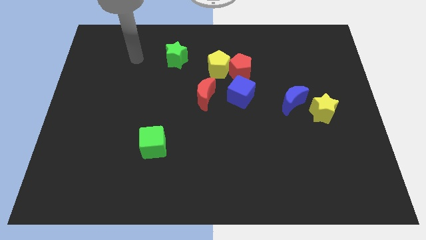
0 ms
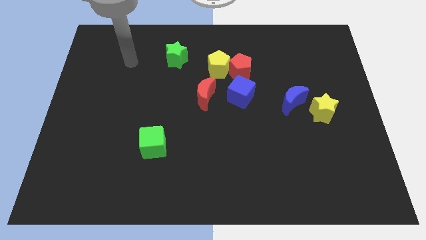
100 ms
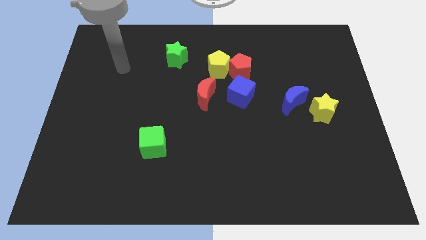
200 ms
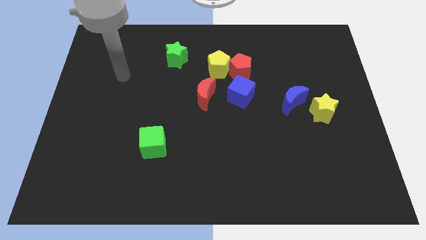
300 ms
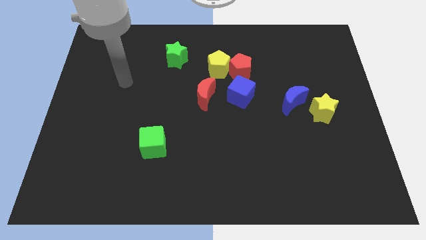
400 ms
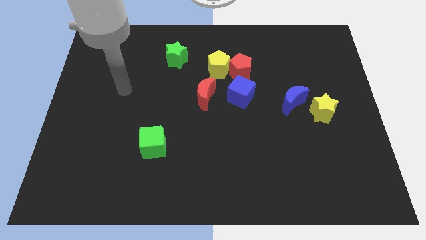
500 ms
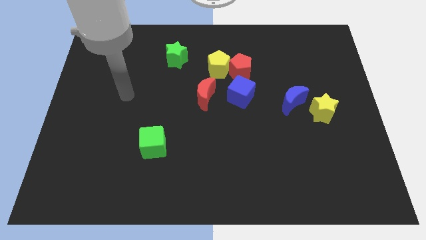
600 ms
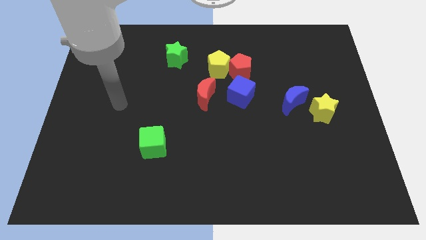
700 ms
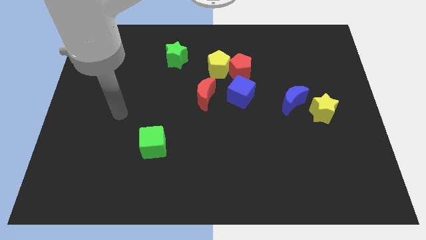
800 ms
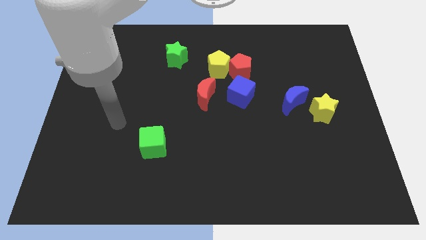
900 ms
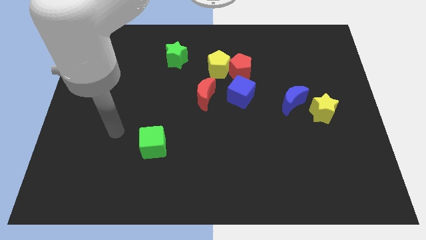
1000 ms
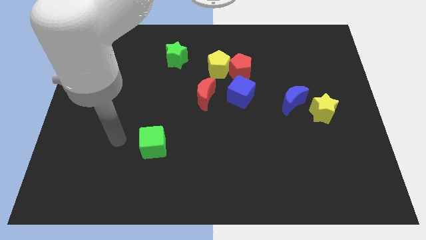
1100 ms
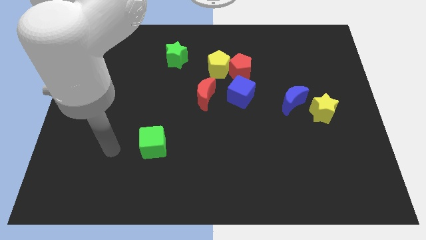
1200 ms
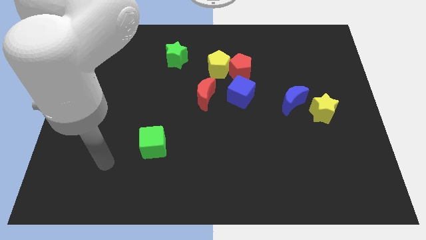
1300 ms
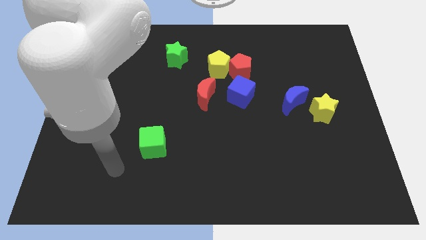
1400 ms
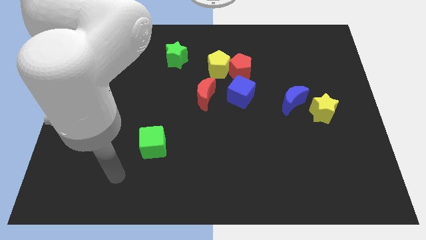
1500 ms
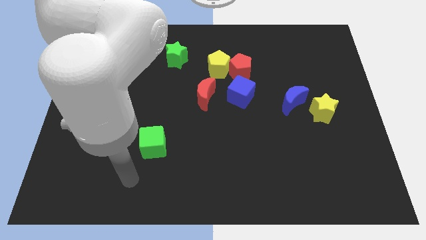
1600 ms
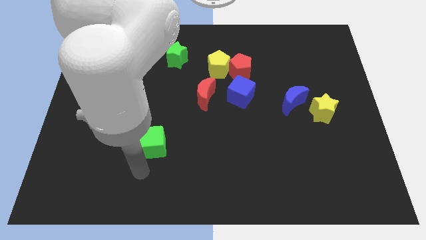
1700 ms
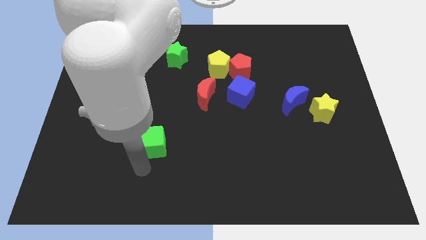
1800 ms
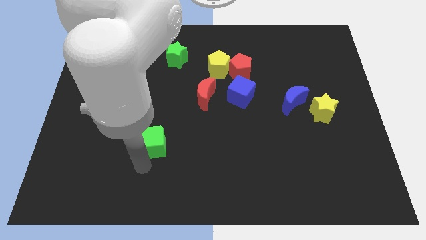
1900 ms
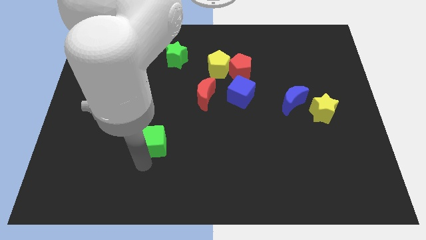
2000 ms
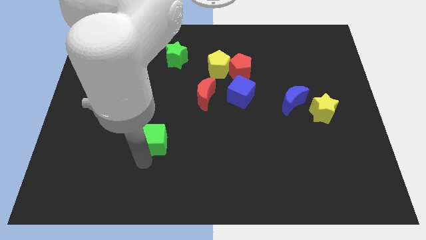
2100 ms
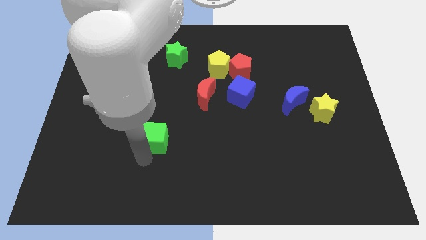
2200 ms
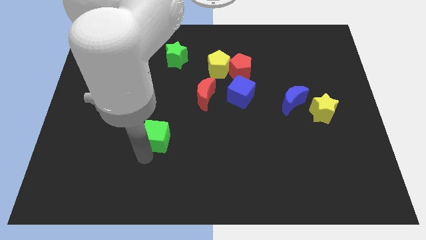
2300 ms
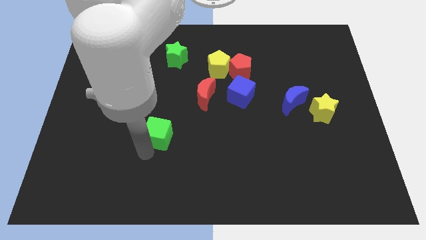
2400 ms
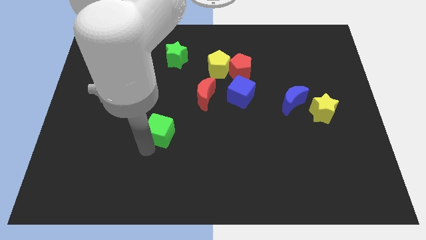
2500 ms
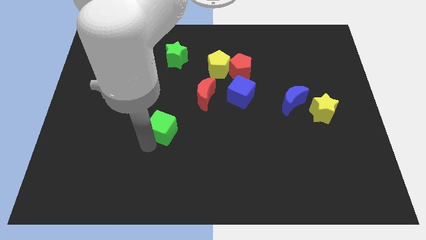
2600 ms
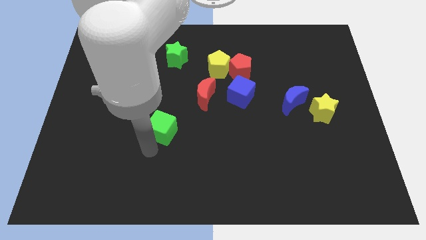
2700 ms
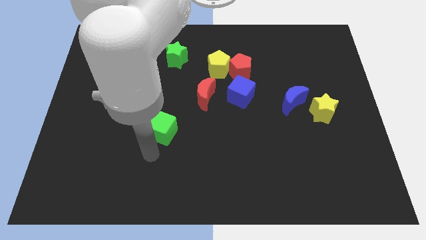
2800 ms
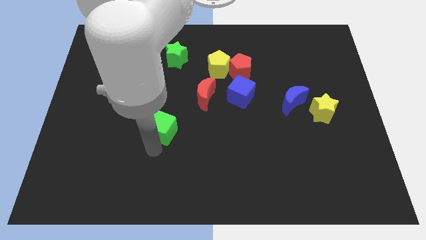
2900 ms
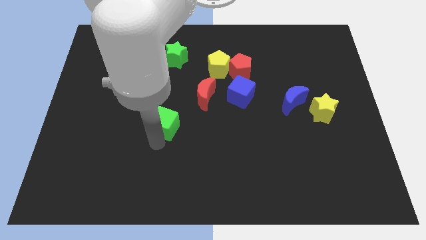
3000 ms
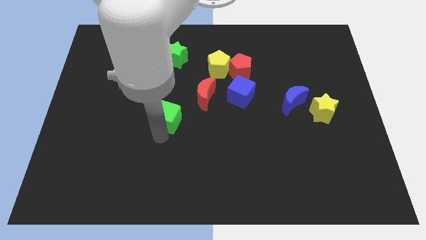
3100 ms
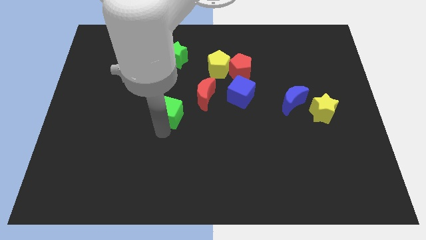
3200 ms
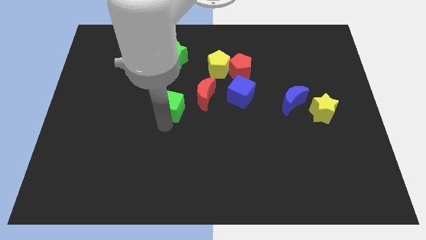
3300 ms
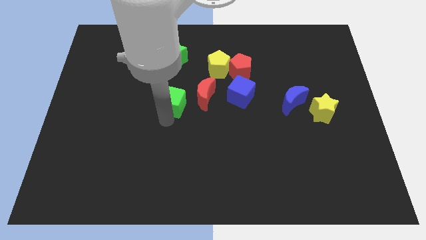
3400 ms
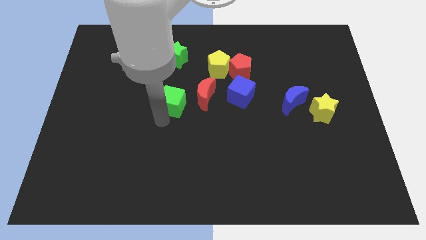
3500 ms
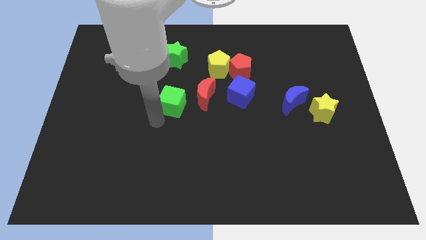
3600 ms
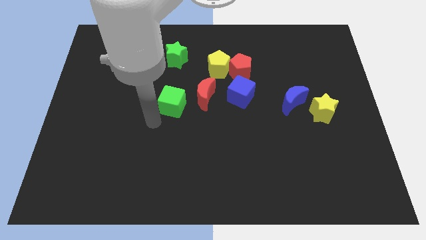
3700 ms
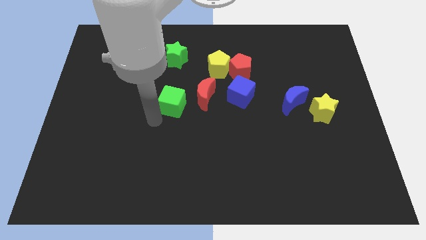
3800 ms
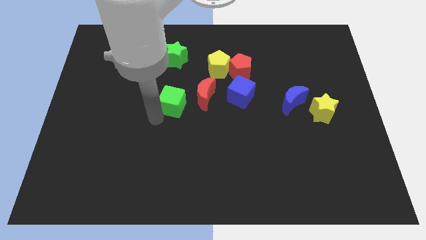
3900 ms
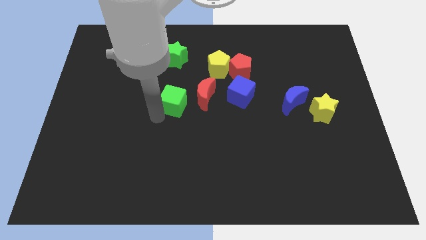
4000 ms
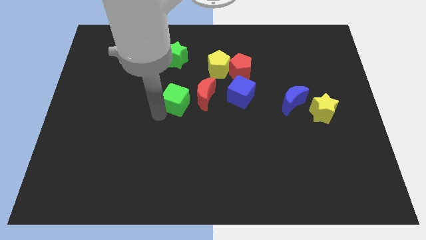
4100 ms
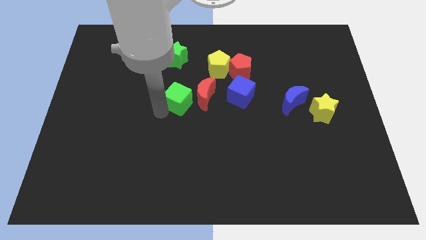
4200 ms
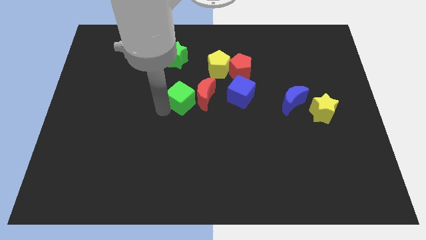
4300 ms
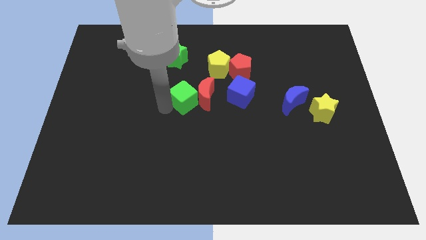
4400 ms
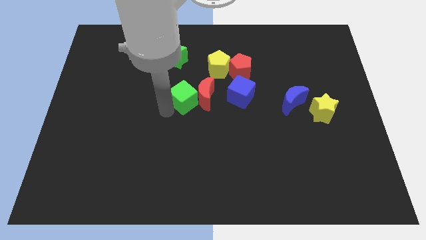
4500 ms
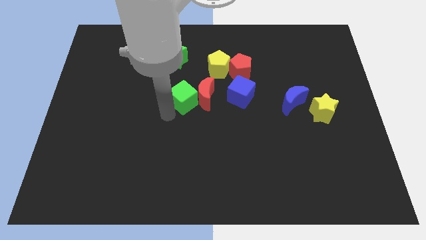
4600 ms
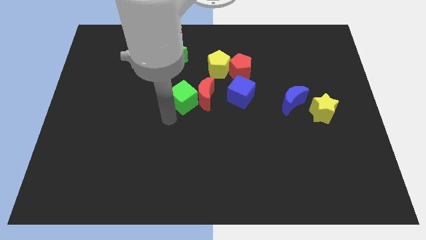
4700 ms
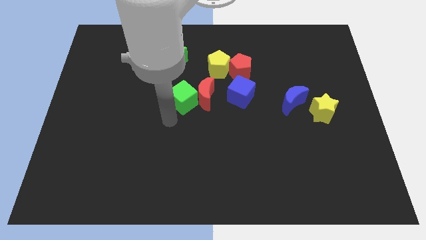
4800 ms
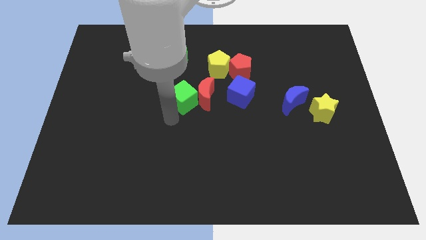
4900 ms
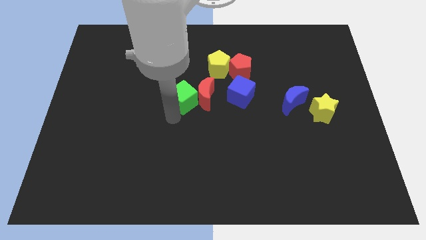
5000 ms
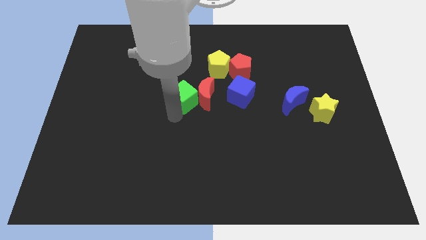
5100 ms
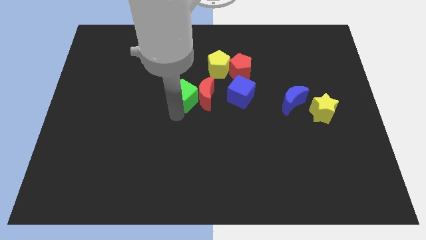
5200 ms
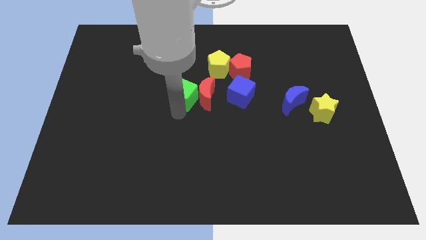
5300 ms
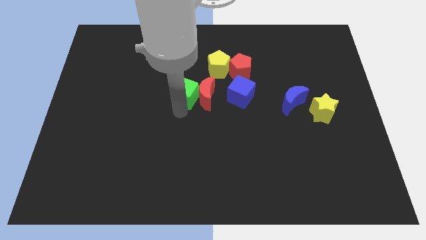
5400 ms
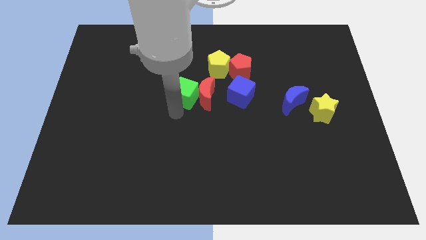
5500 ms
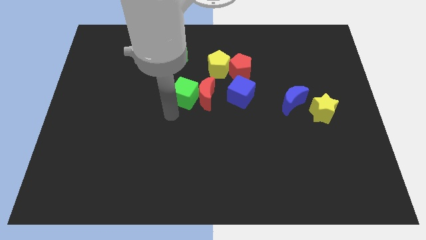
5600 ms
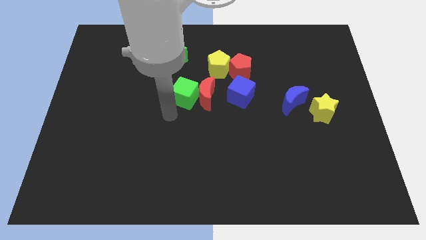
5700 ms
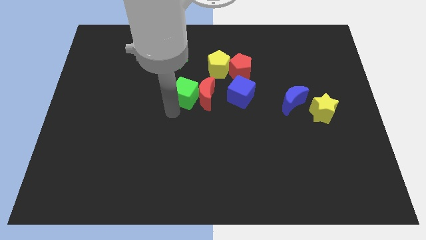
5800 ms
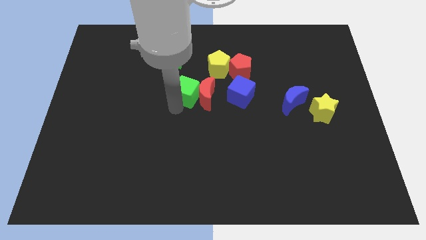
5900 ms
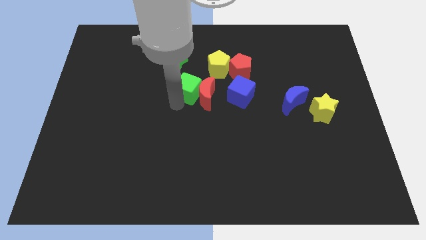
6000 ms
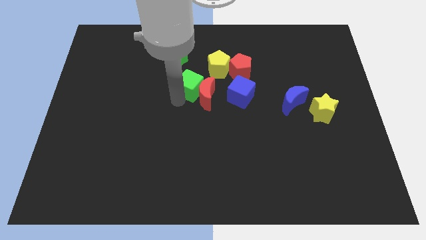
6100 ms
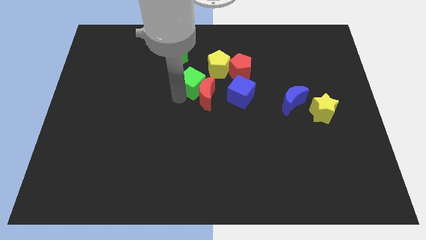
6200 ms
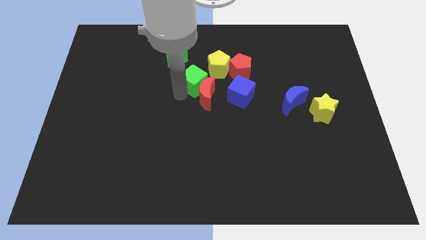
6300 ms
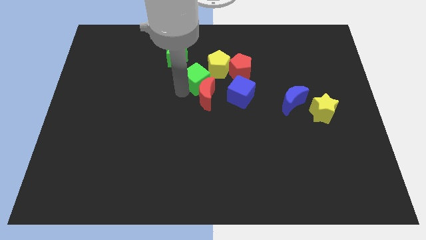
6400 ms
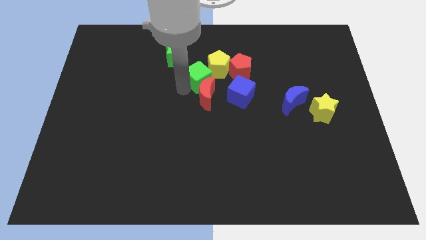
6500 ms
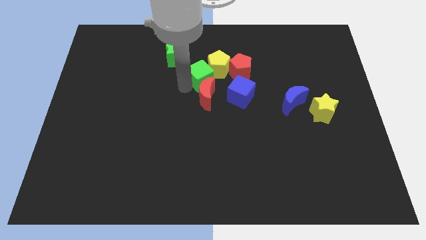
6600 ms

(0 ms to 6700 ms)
slide the green cube close to the yellow pentagon

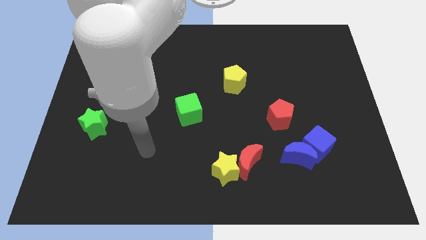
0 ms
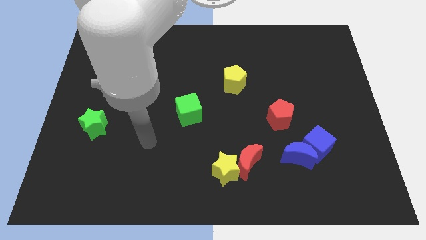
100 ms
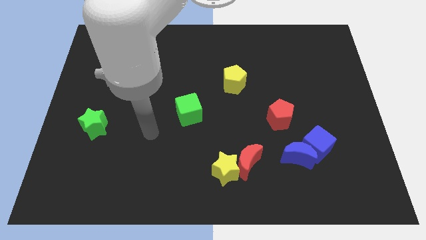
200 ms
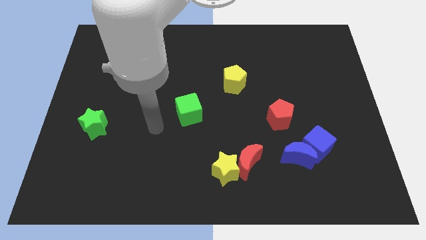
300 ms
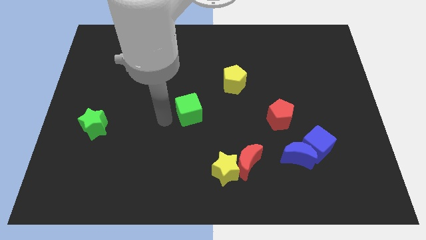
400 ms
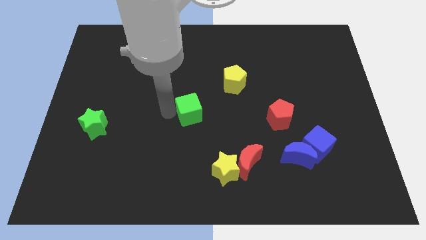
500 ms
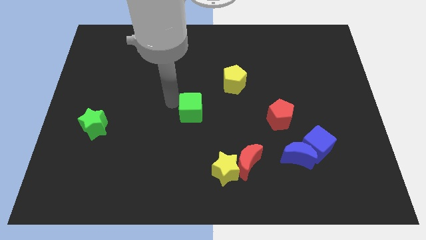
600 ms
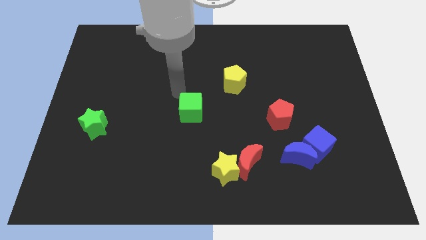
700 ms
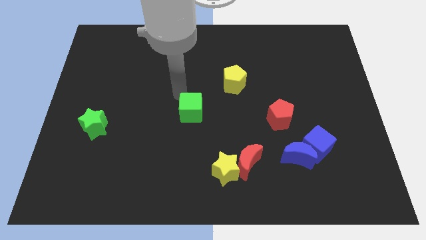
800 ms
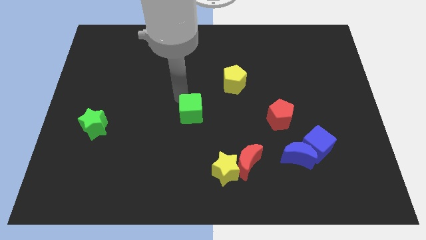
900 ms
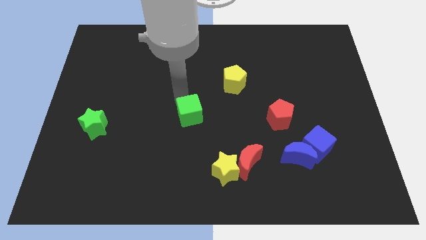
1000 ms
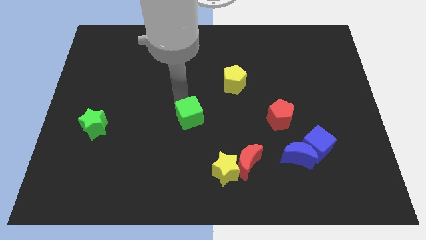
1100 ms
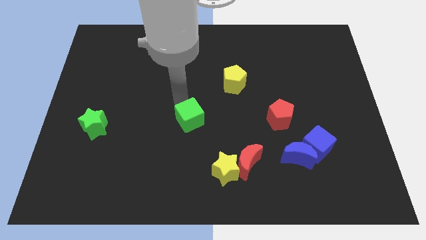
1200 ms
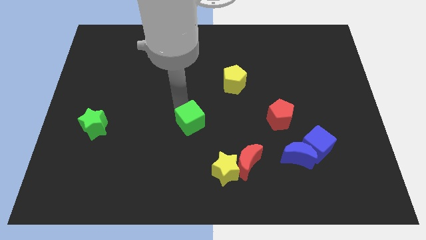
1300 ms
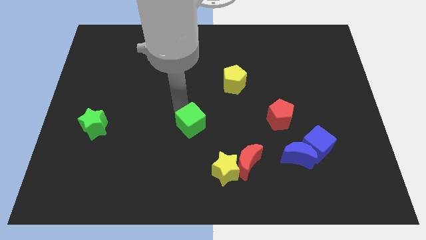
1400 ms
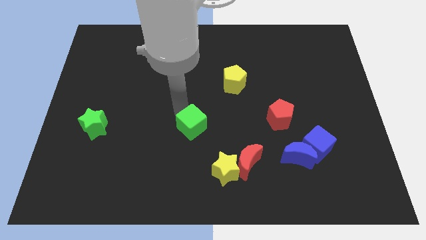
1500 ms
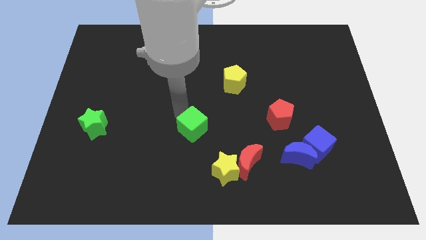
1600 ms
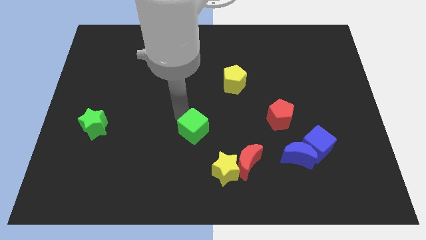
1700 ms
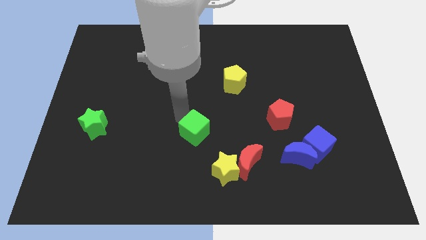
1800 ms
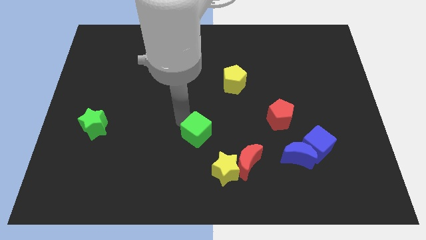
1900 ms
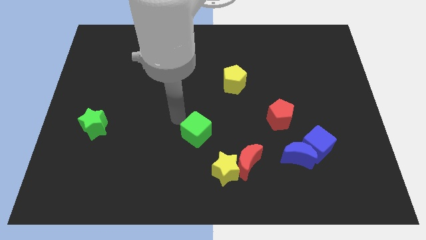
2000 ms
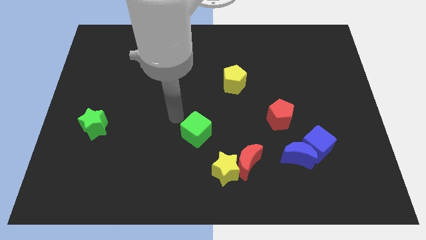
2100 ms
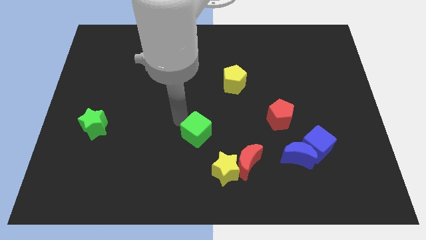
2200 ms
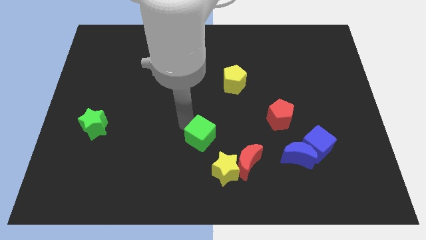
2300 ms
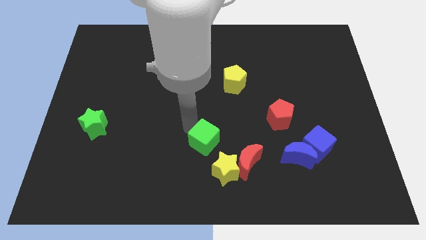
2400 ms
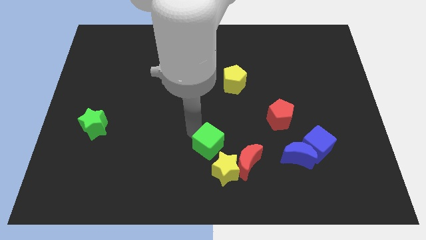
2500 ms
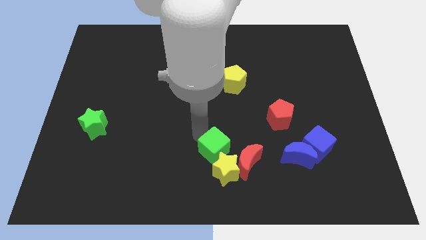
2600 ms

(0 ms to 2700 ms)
put the green cube to the yellow star
